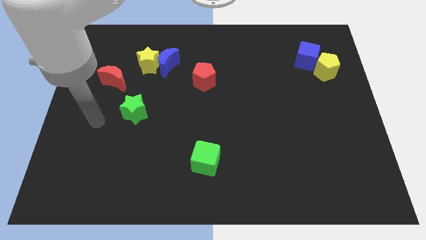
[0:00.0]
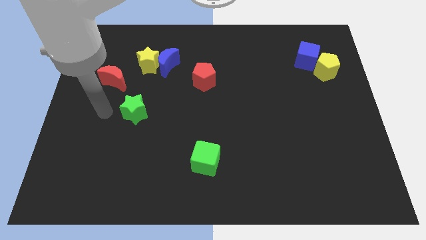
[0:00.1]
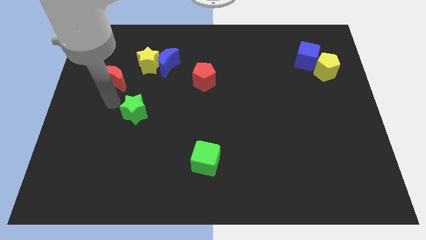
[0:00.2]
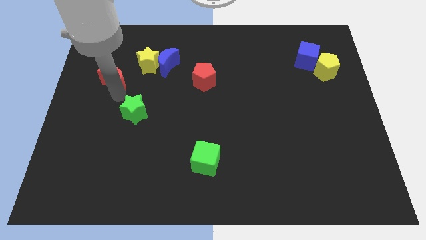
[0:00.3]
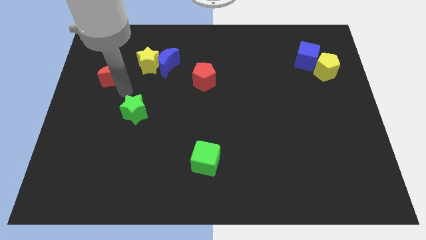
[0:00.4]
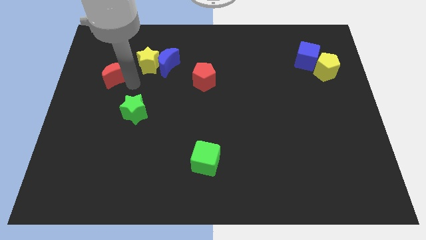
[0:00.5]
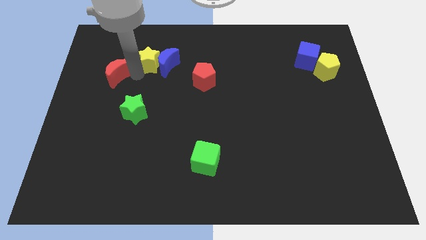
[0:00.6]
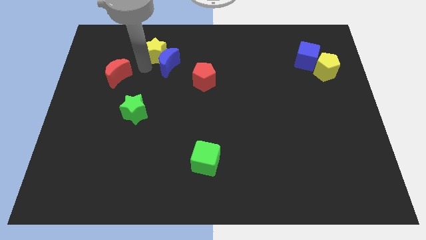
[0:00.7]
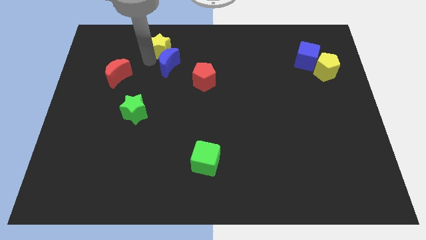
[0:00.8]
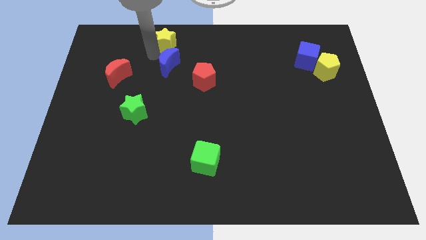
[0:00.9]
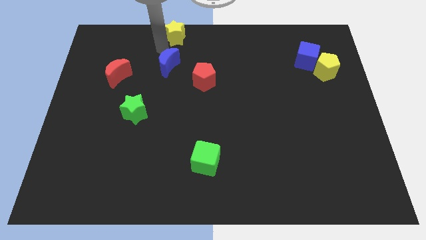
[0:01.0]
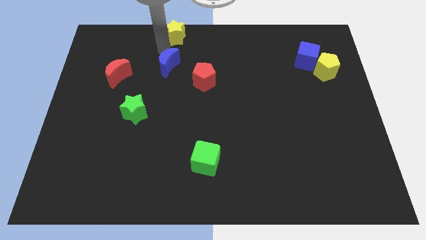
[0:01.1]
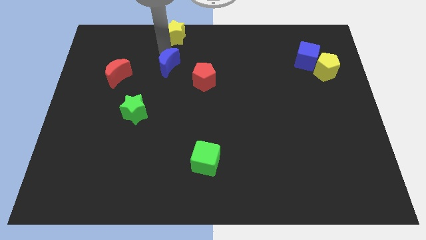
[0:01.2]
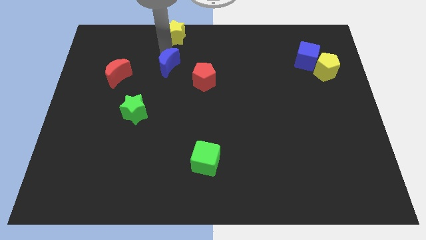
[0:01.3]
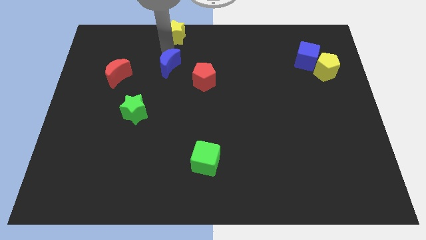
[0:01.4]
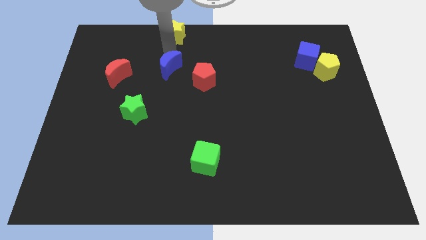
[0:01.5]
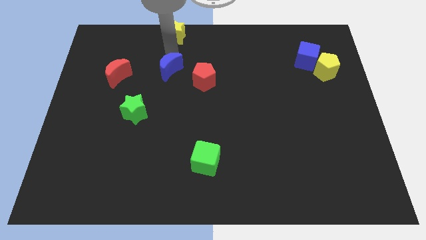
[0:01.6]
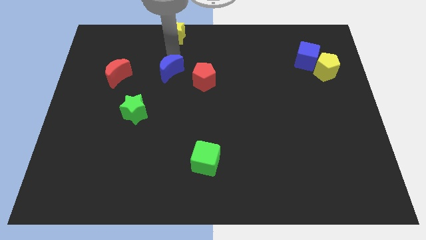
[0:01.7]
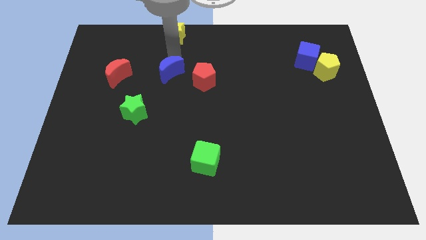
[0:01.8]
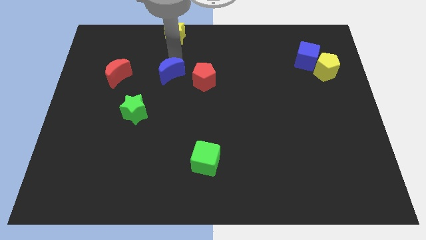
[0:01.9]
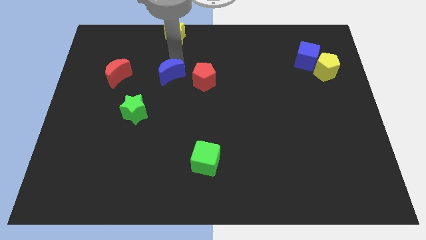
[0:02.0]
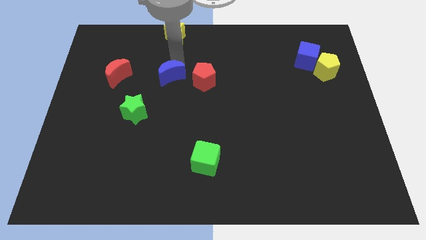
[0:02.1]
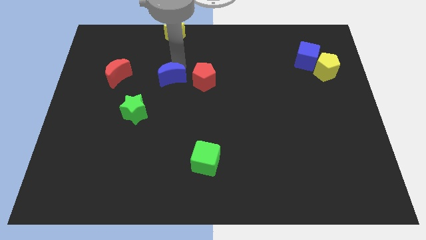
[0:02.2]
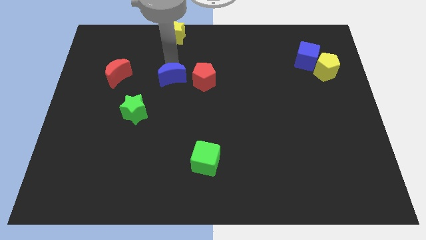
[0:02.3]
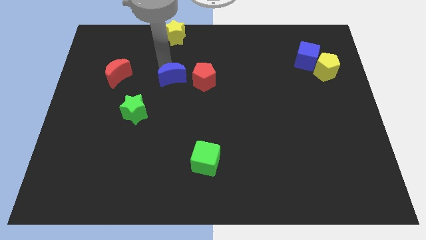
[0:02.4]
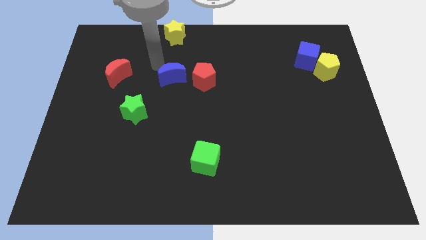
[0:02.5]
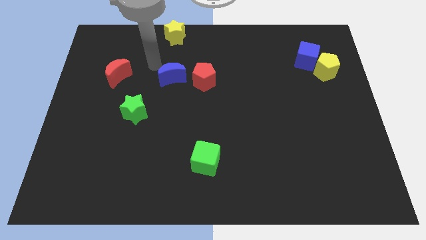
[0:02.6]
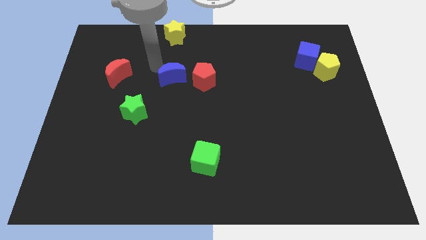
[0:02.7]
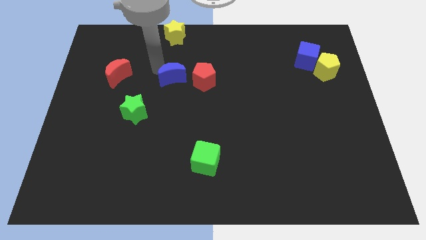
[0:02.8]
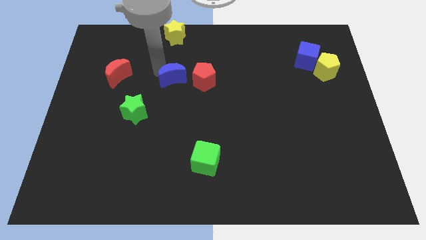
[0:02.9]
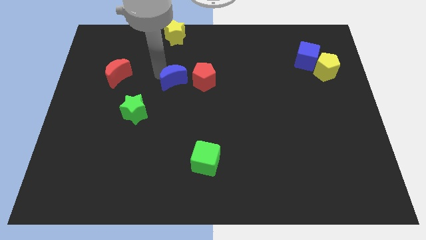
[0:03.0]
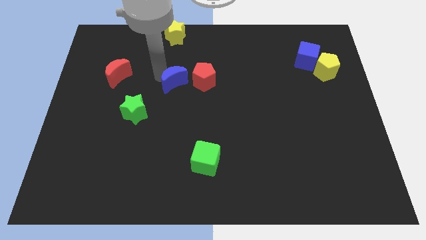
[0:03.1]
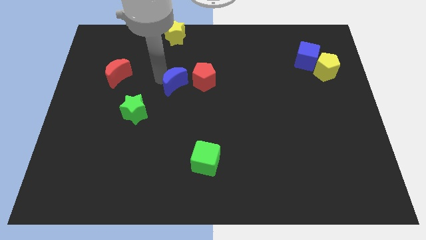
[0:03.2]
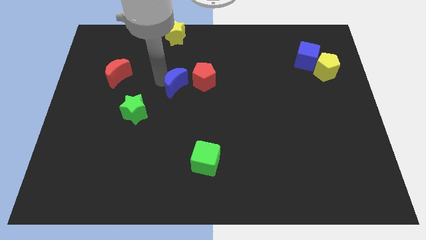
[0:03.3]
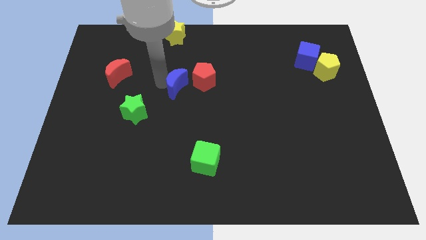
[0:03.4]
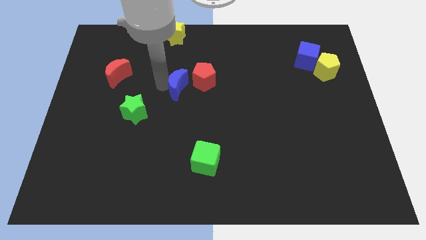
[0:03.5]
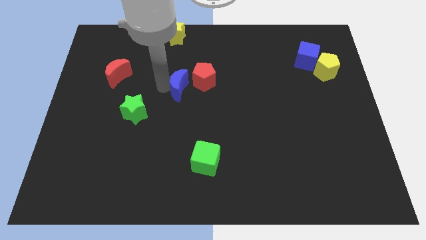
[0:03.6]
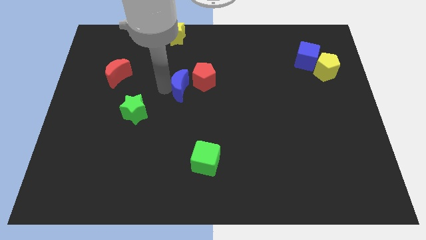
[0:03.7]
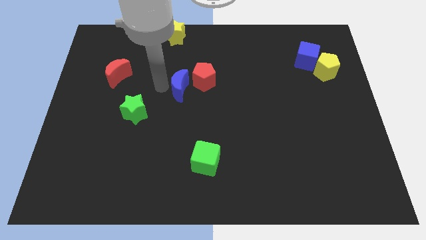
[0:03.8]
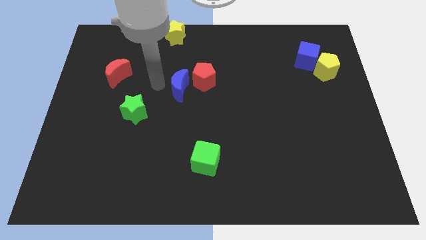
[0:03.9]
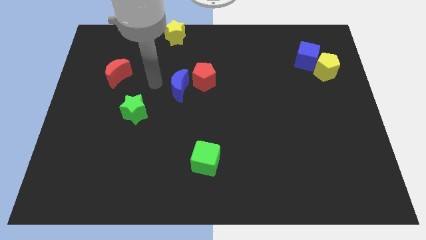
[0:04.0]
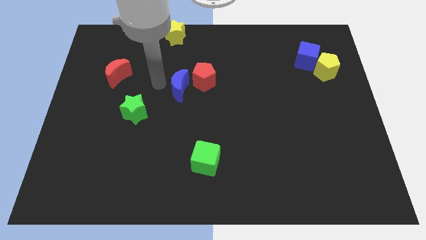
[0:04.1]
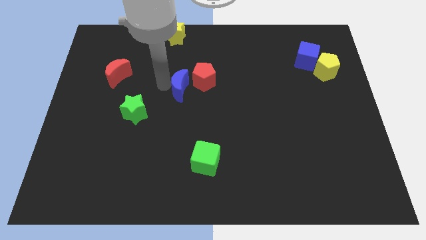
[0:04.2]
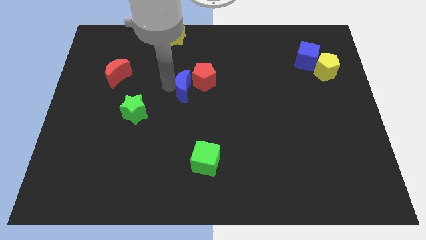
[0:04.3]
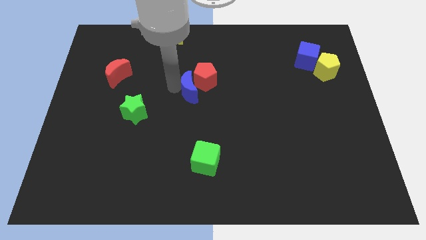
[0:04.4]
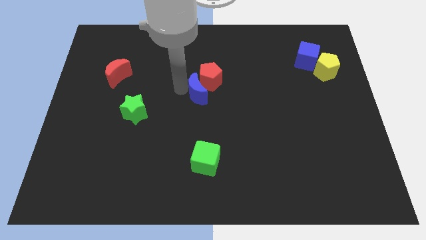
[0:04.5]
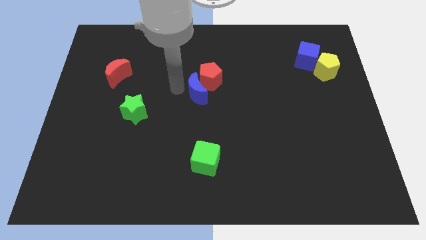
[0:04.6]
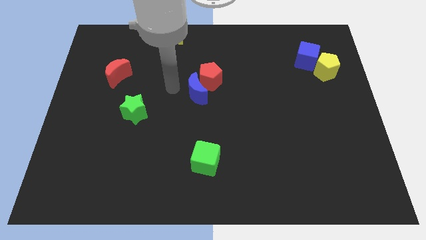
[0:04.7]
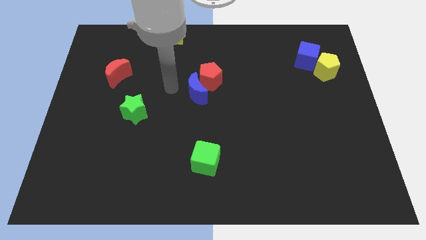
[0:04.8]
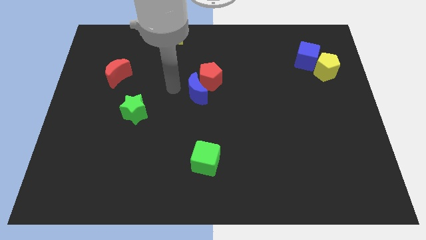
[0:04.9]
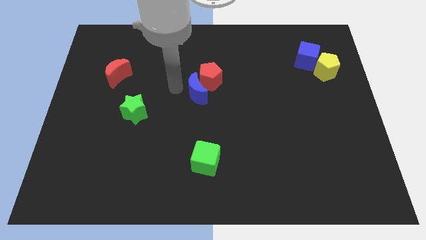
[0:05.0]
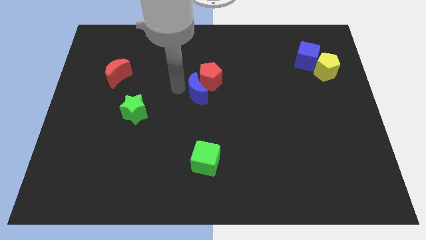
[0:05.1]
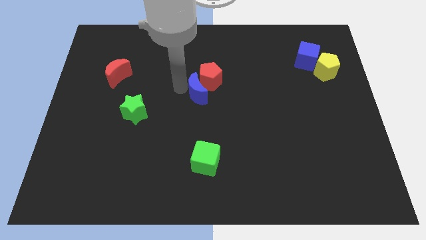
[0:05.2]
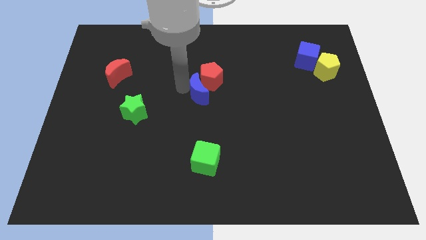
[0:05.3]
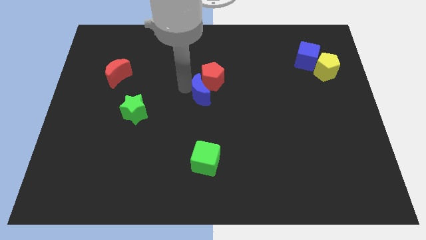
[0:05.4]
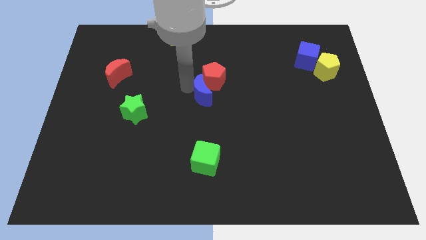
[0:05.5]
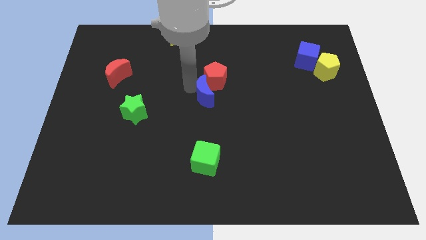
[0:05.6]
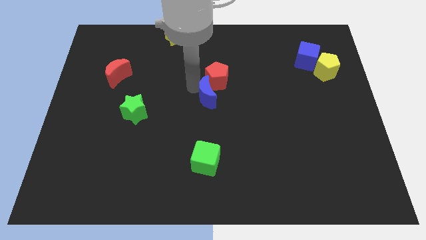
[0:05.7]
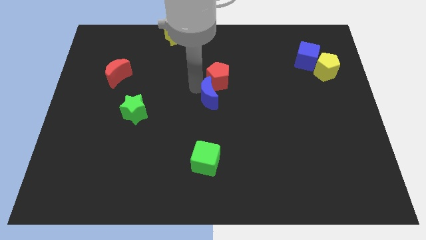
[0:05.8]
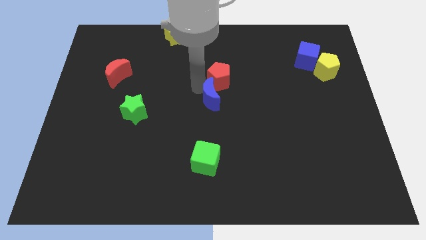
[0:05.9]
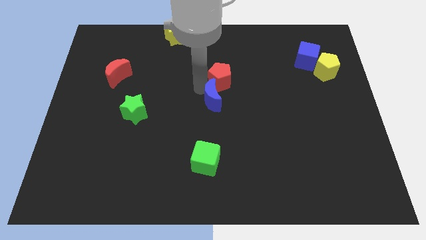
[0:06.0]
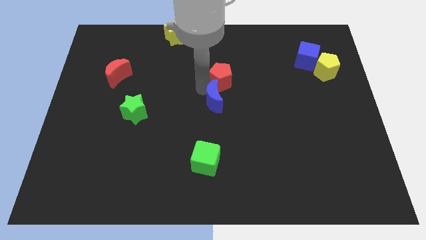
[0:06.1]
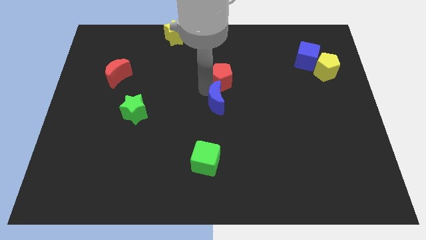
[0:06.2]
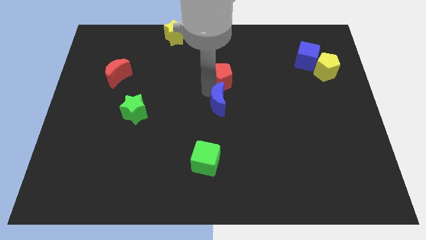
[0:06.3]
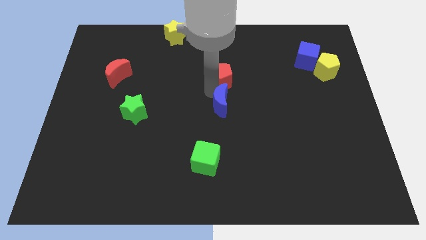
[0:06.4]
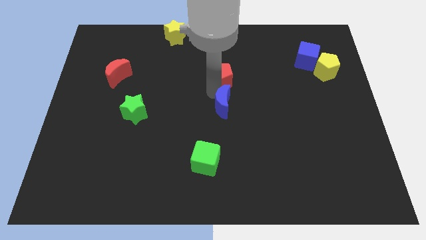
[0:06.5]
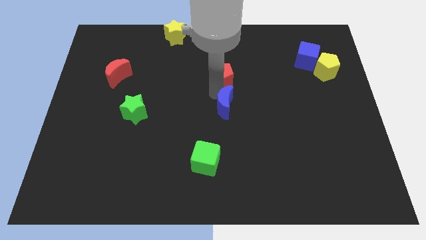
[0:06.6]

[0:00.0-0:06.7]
slide the blue moon diagonally downwards and right

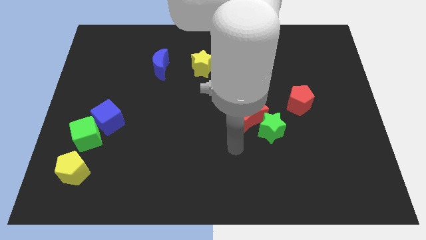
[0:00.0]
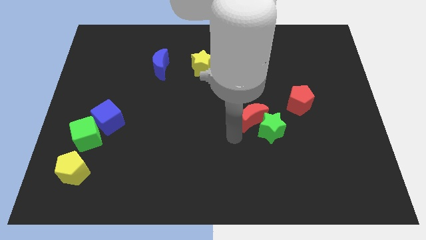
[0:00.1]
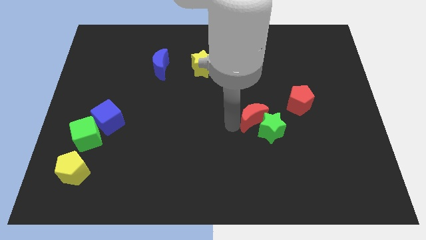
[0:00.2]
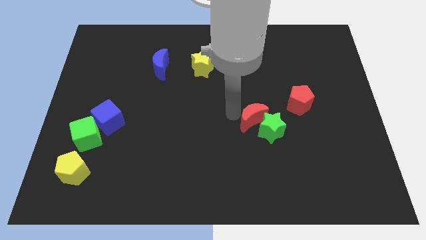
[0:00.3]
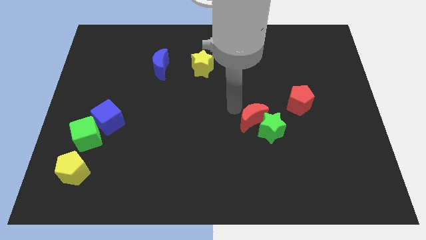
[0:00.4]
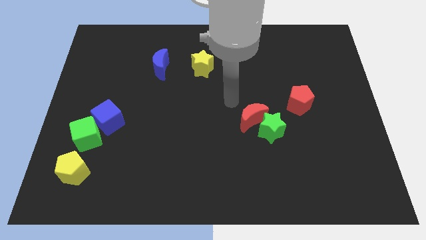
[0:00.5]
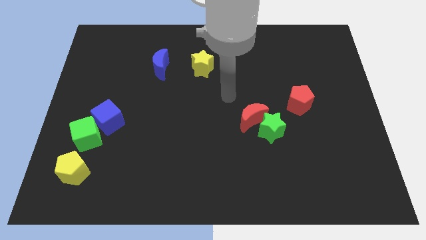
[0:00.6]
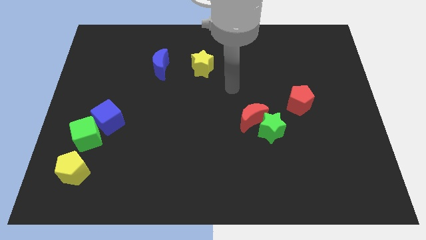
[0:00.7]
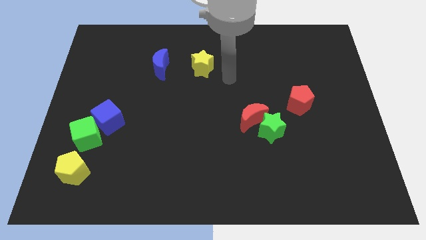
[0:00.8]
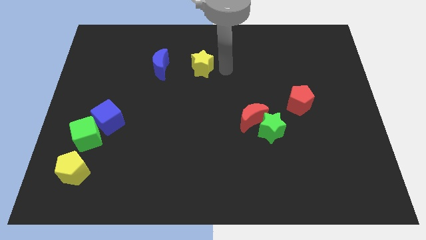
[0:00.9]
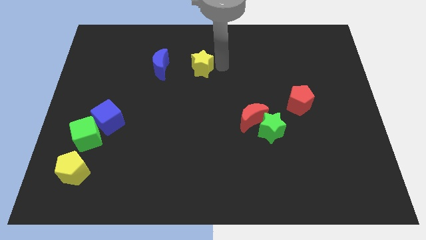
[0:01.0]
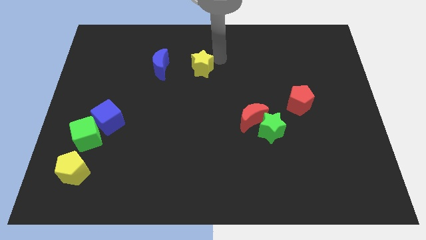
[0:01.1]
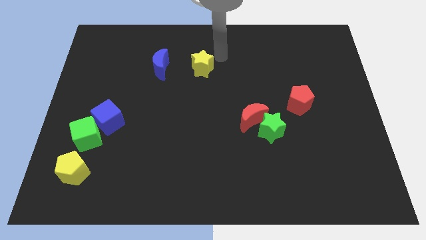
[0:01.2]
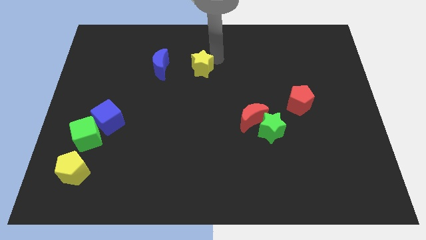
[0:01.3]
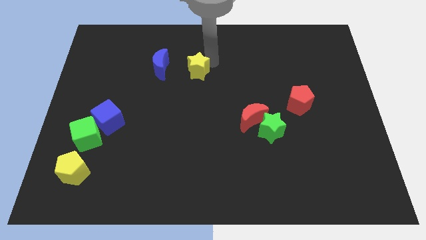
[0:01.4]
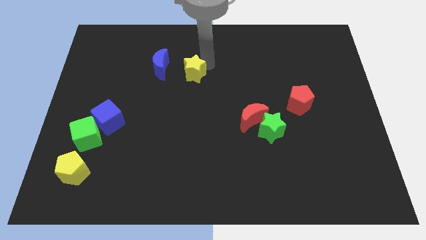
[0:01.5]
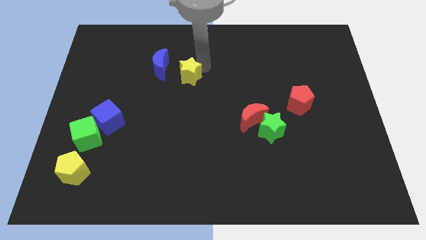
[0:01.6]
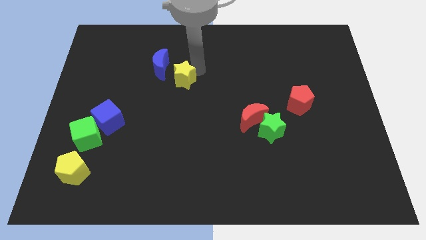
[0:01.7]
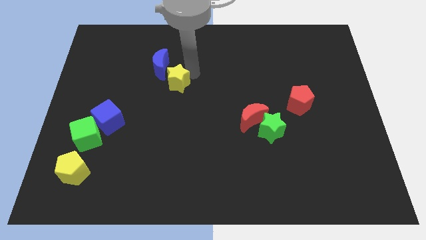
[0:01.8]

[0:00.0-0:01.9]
slide the yellow star down and to the left a little bit
